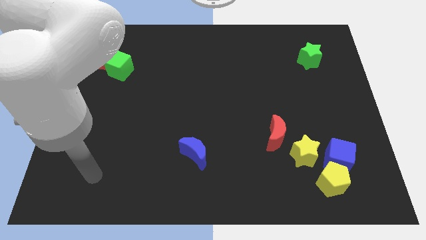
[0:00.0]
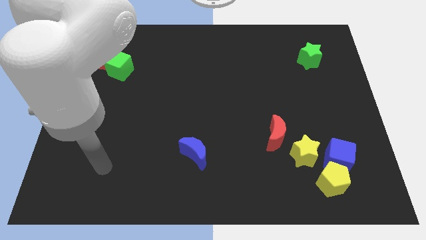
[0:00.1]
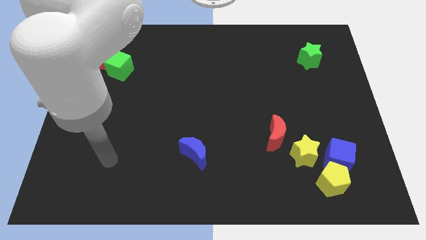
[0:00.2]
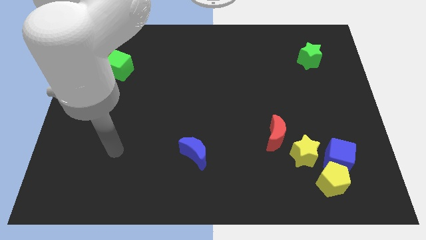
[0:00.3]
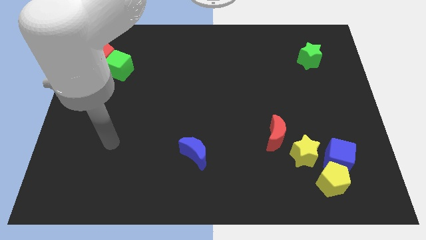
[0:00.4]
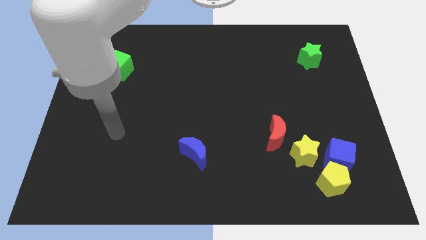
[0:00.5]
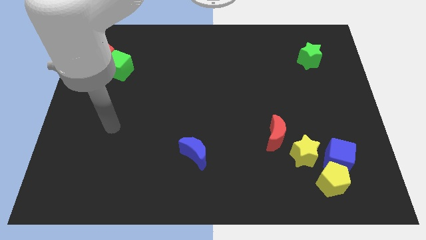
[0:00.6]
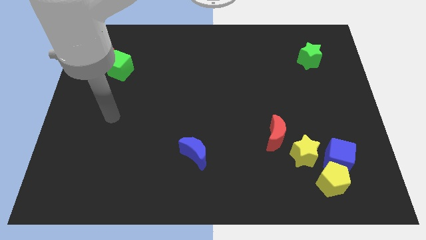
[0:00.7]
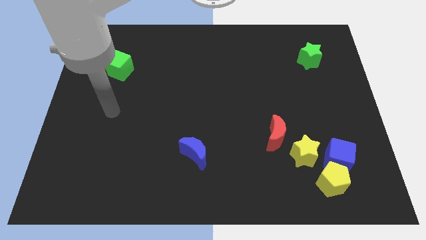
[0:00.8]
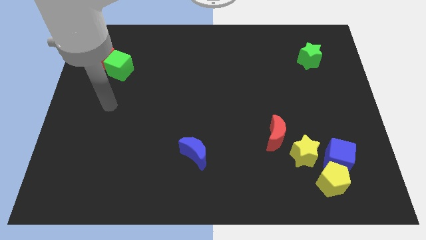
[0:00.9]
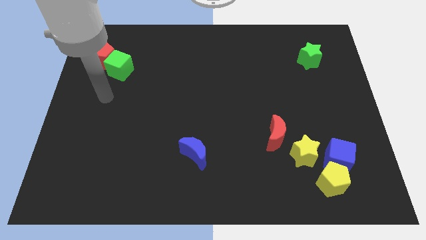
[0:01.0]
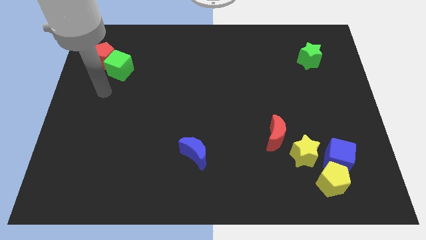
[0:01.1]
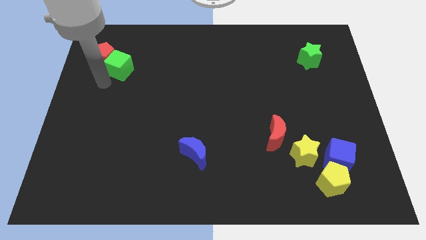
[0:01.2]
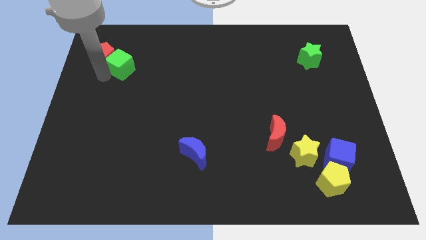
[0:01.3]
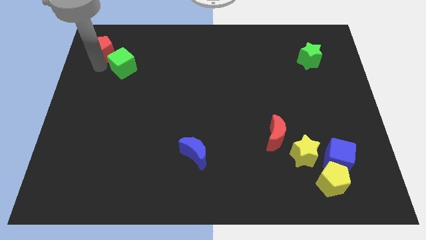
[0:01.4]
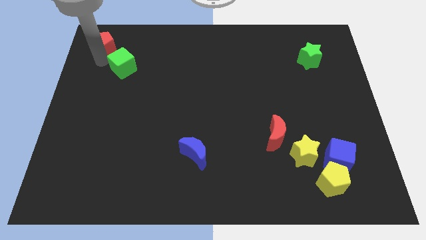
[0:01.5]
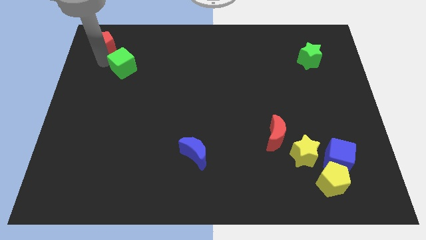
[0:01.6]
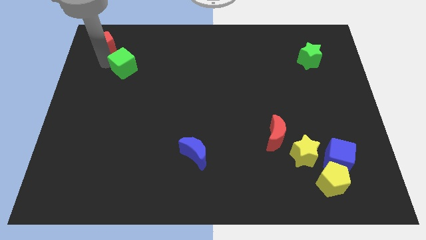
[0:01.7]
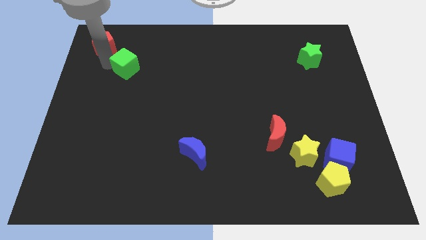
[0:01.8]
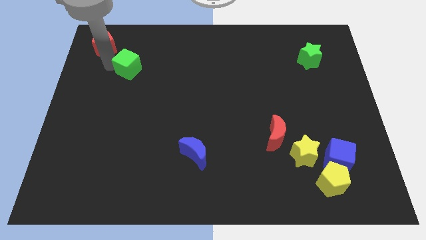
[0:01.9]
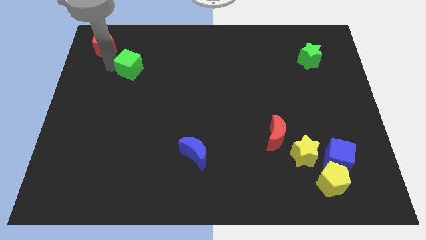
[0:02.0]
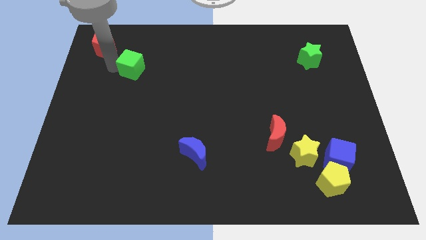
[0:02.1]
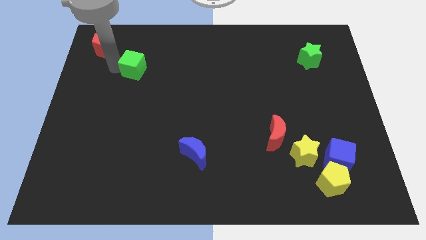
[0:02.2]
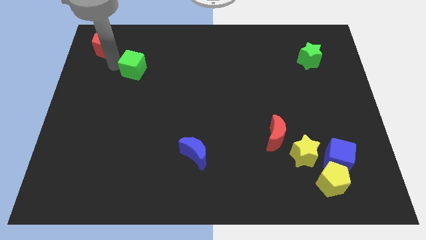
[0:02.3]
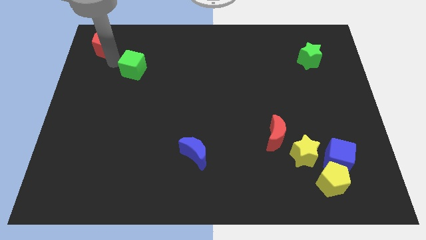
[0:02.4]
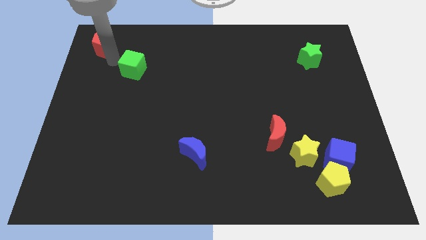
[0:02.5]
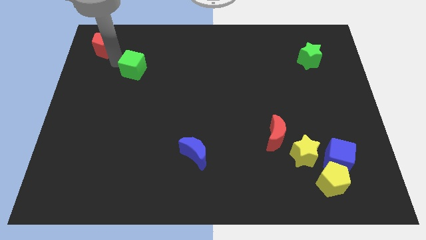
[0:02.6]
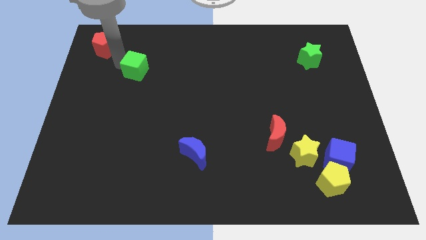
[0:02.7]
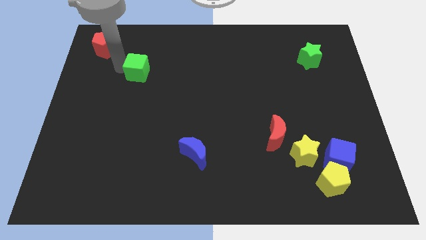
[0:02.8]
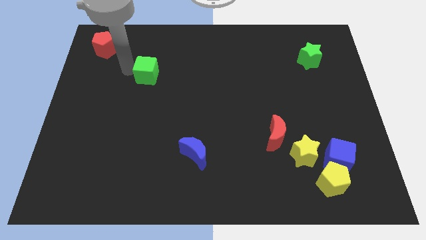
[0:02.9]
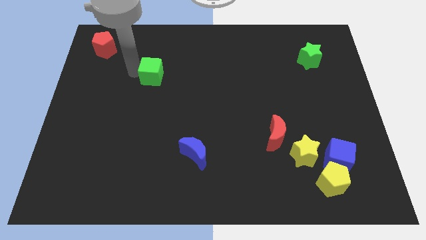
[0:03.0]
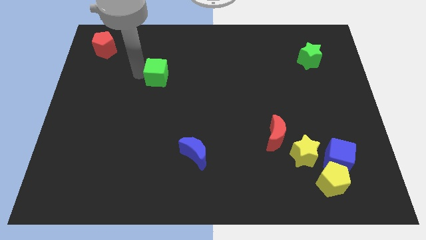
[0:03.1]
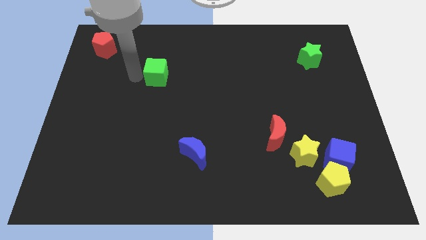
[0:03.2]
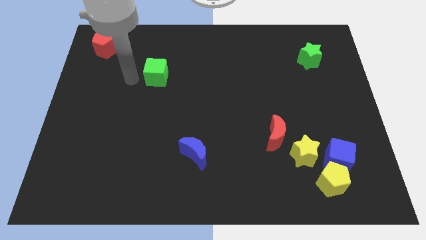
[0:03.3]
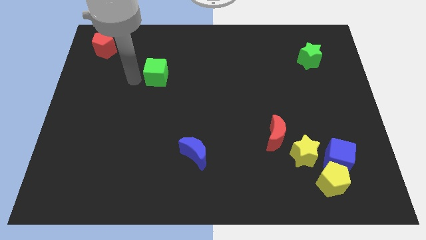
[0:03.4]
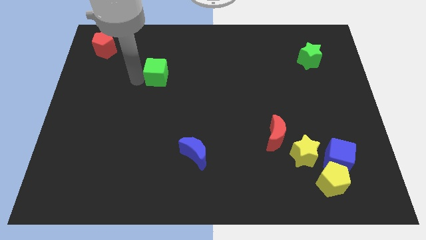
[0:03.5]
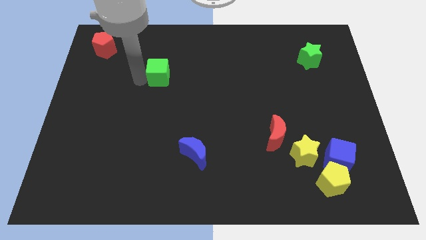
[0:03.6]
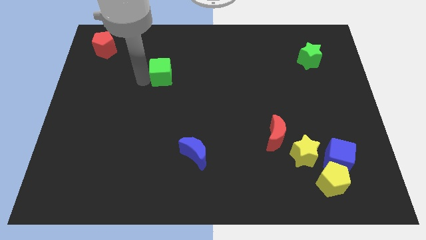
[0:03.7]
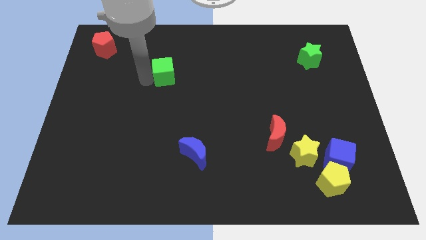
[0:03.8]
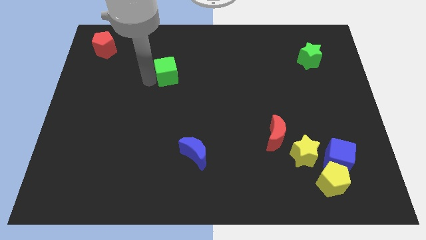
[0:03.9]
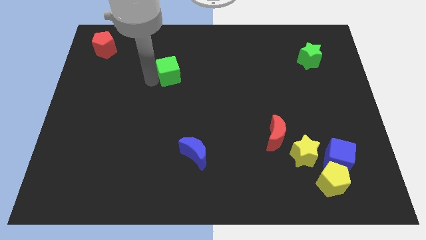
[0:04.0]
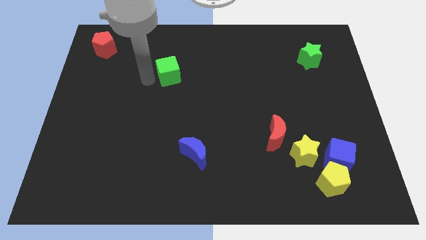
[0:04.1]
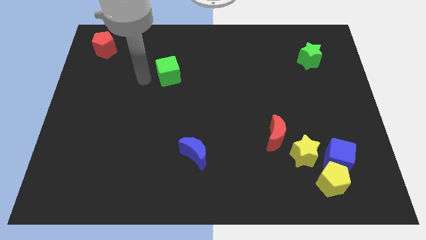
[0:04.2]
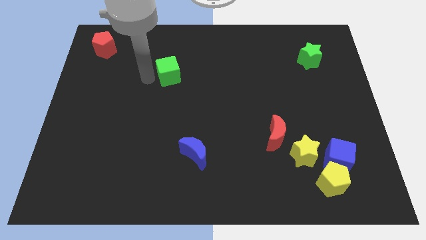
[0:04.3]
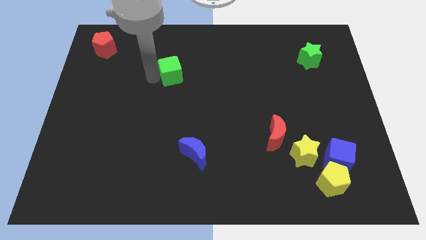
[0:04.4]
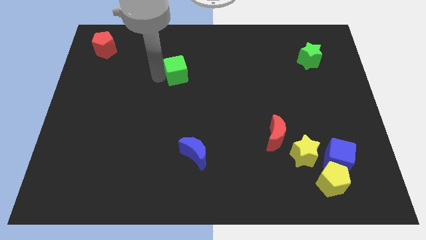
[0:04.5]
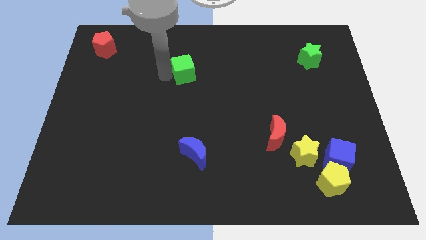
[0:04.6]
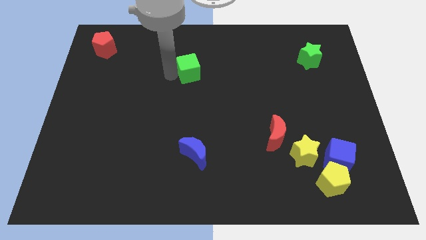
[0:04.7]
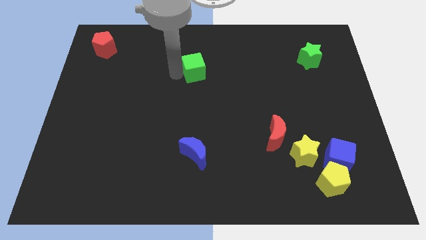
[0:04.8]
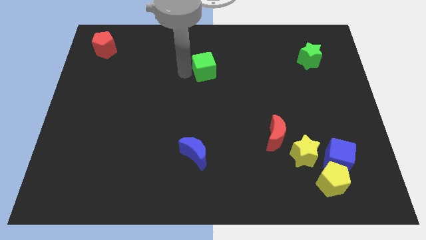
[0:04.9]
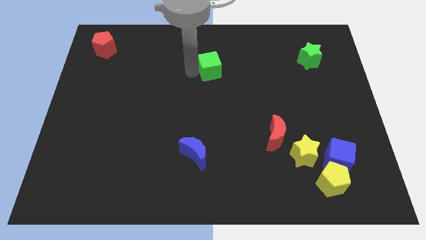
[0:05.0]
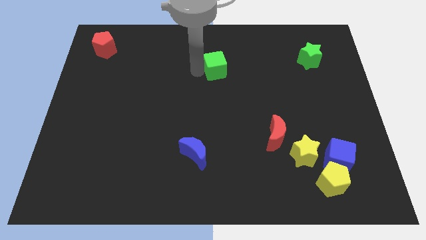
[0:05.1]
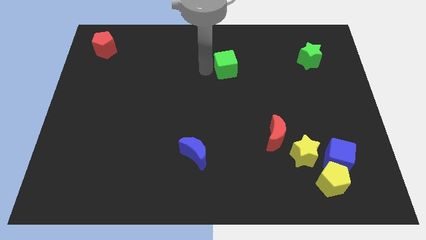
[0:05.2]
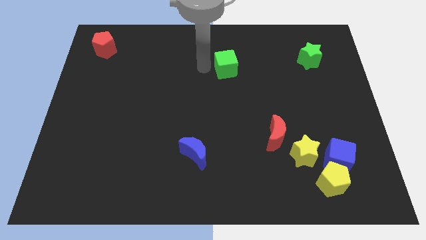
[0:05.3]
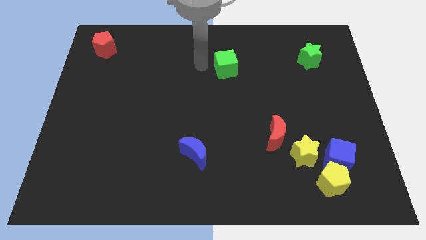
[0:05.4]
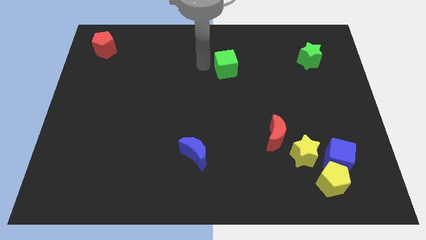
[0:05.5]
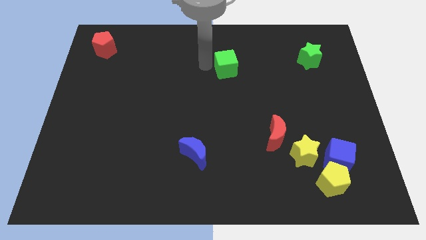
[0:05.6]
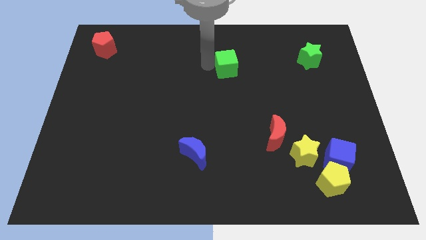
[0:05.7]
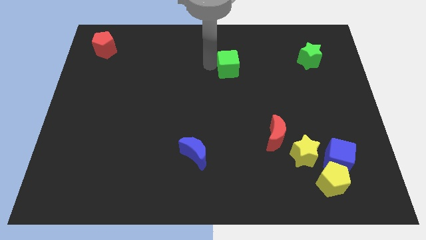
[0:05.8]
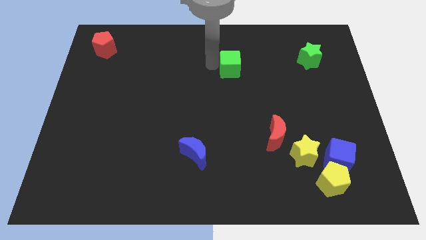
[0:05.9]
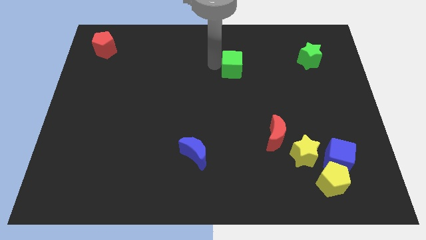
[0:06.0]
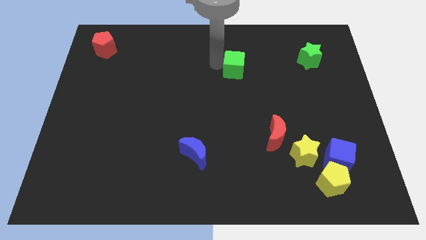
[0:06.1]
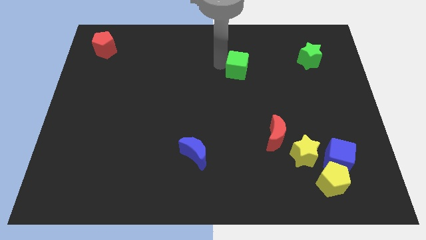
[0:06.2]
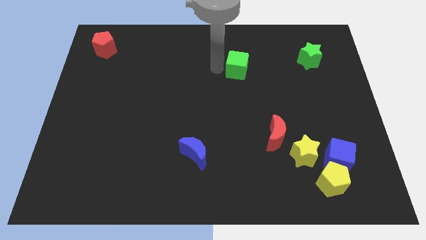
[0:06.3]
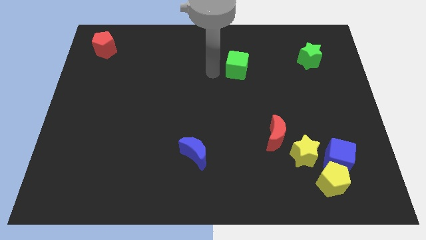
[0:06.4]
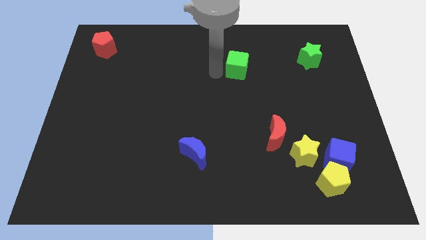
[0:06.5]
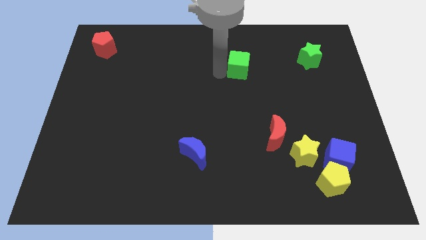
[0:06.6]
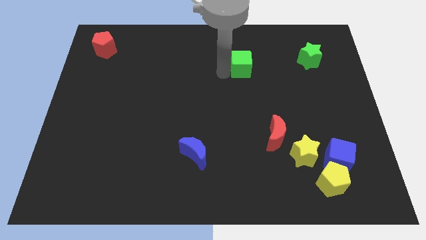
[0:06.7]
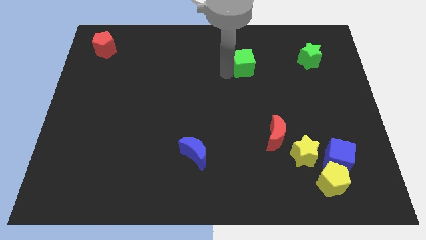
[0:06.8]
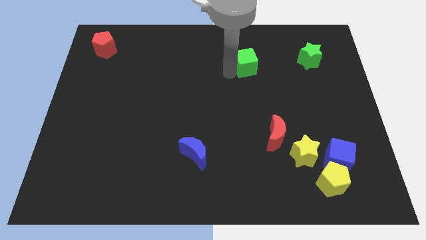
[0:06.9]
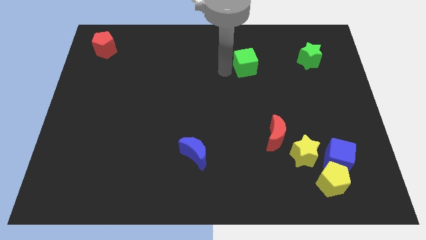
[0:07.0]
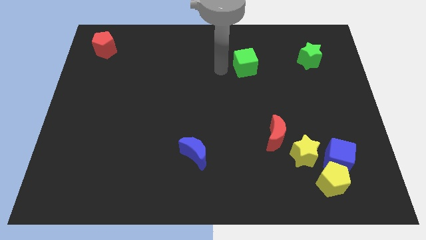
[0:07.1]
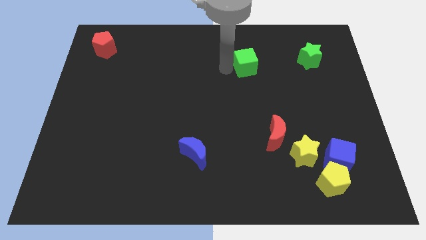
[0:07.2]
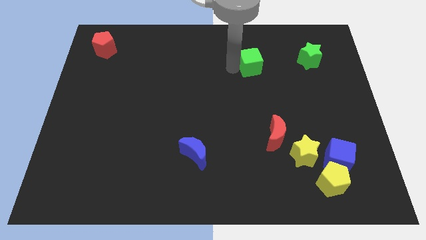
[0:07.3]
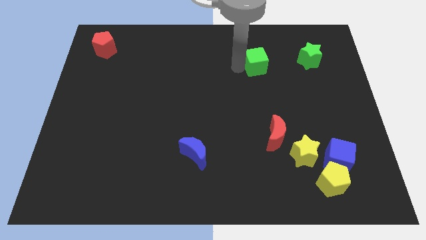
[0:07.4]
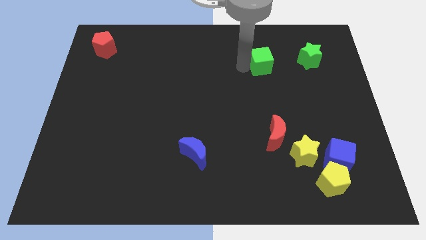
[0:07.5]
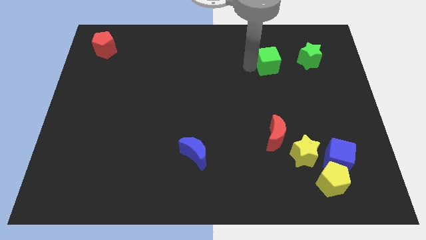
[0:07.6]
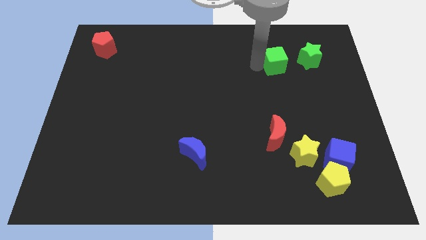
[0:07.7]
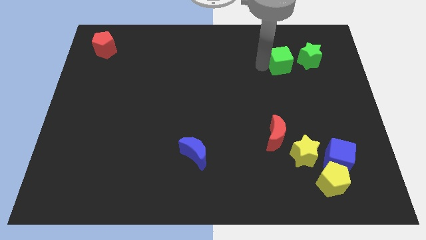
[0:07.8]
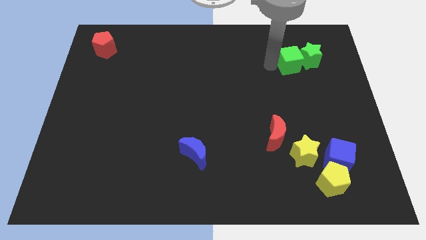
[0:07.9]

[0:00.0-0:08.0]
put the green cube towards the green star

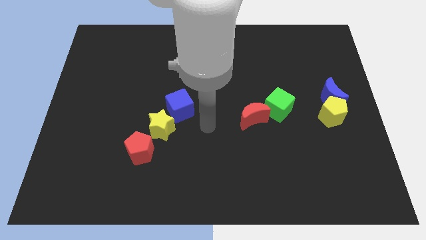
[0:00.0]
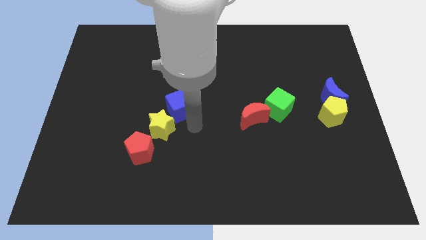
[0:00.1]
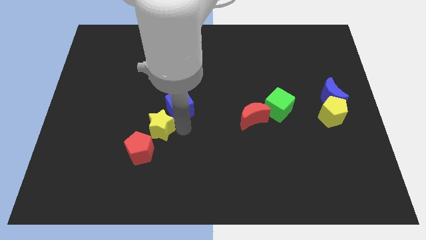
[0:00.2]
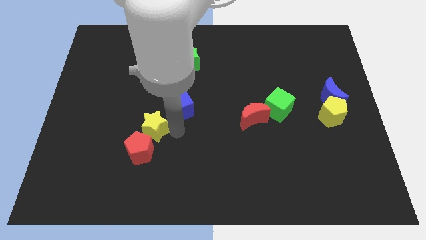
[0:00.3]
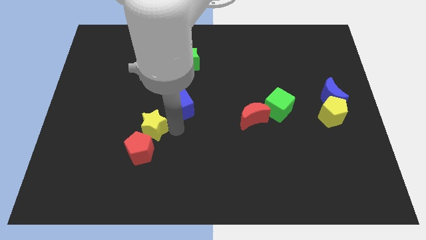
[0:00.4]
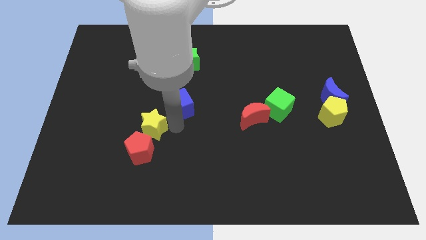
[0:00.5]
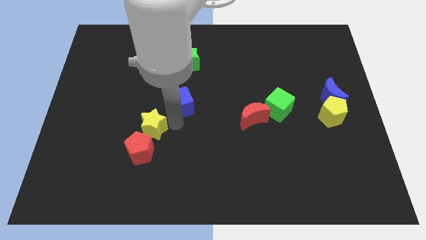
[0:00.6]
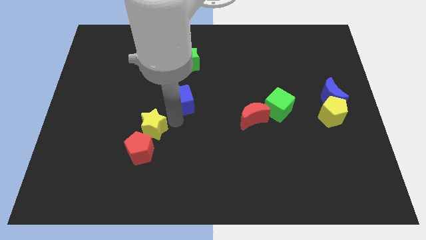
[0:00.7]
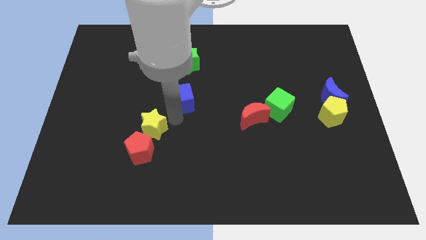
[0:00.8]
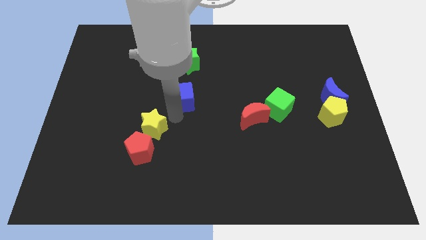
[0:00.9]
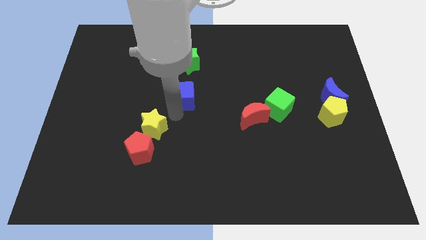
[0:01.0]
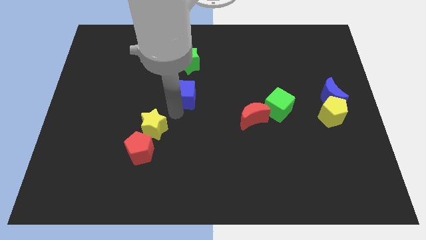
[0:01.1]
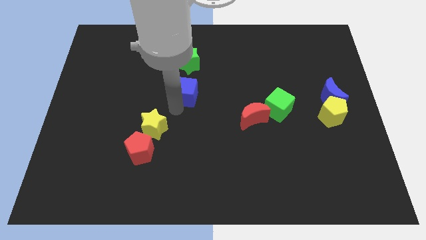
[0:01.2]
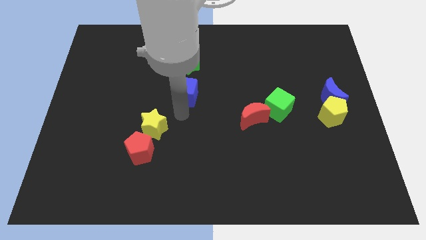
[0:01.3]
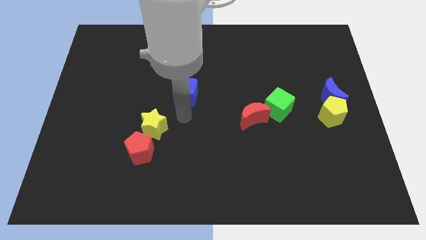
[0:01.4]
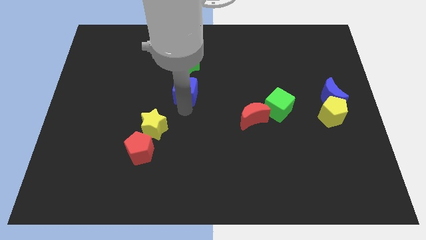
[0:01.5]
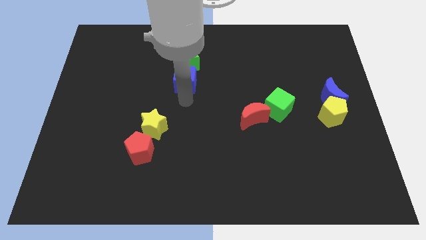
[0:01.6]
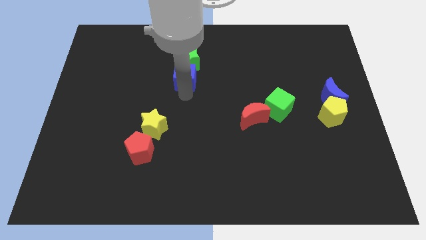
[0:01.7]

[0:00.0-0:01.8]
slide the blue cube next to the green star
